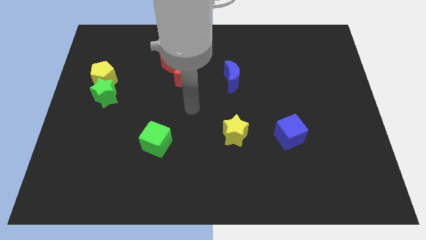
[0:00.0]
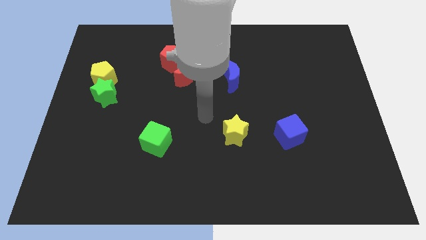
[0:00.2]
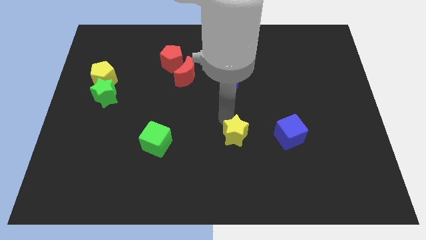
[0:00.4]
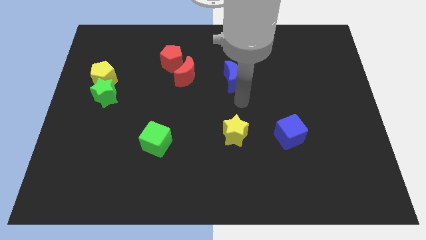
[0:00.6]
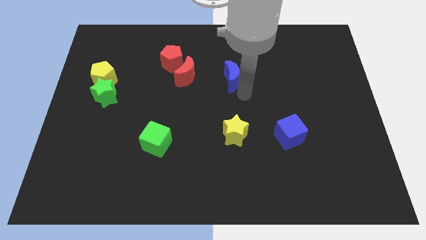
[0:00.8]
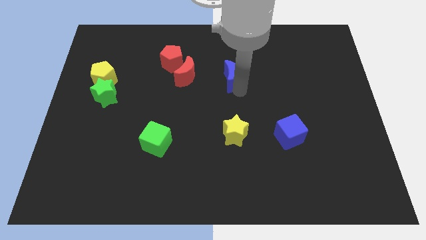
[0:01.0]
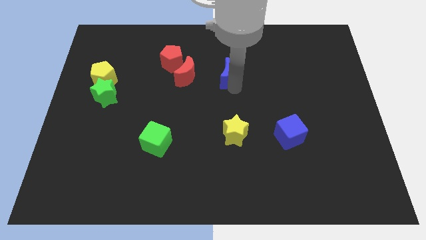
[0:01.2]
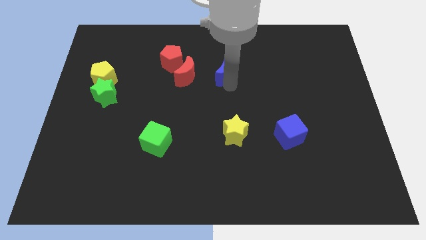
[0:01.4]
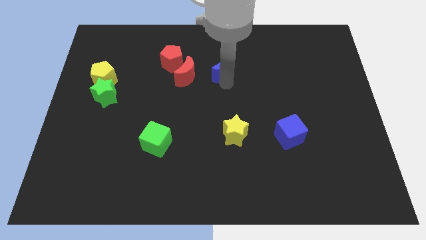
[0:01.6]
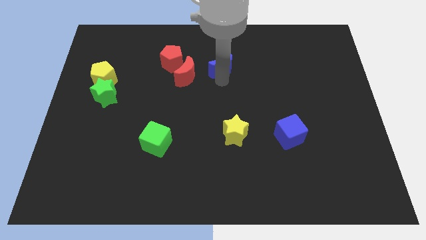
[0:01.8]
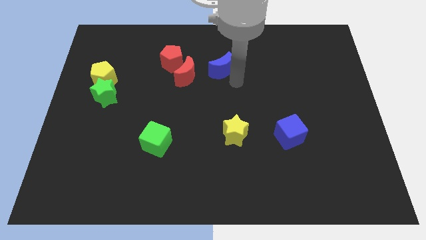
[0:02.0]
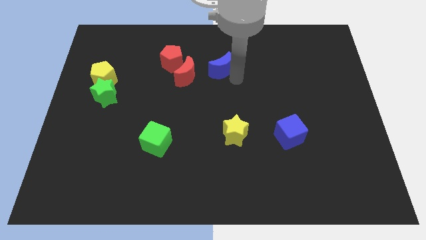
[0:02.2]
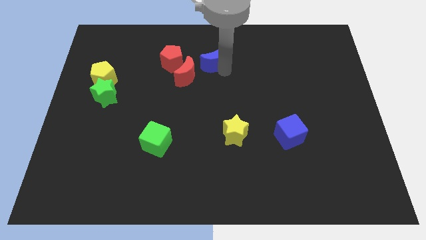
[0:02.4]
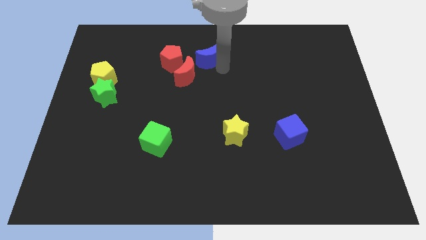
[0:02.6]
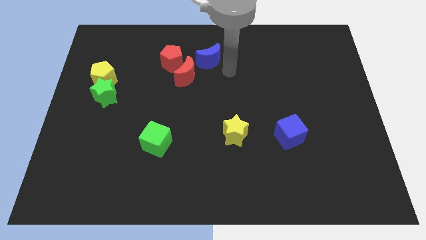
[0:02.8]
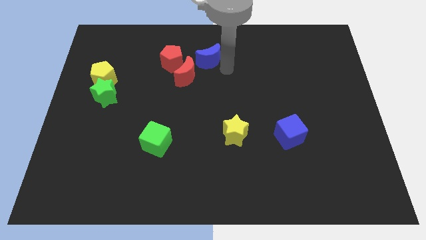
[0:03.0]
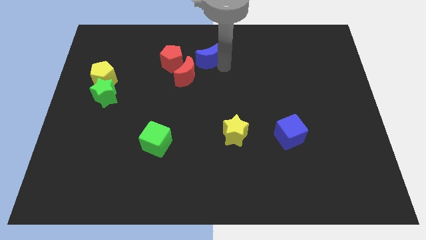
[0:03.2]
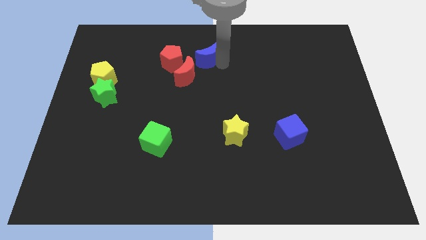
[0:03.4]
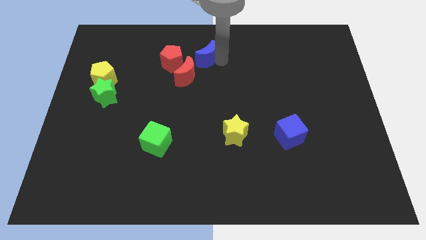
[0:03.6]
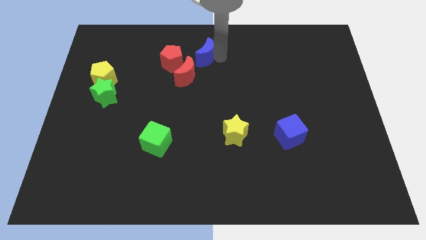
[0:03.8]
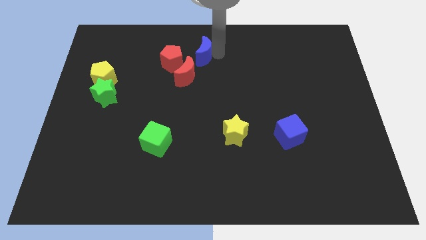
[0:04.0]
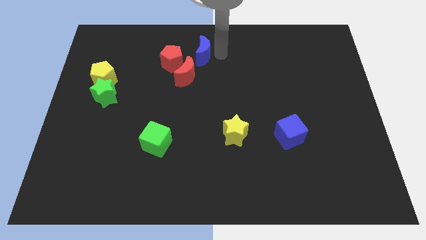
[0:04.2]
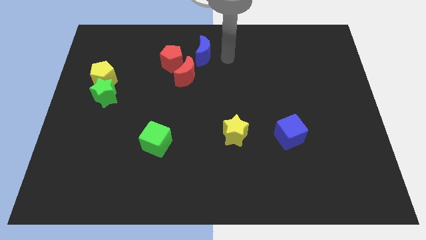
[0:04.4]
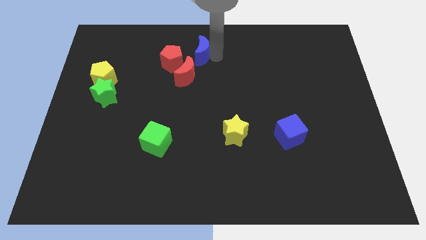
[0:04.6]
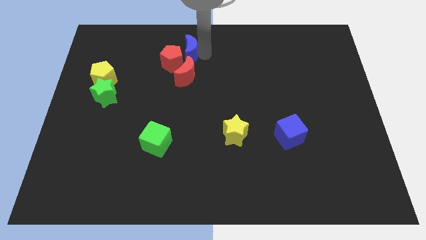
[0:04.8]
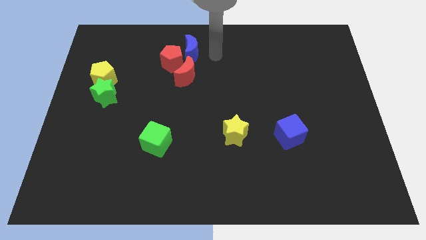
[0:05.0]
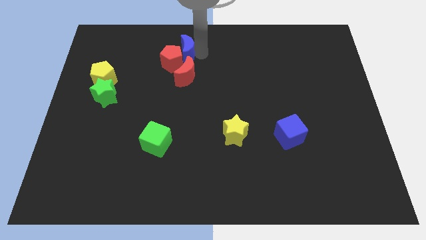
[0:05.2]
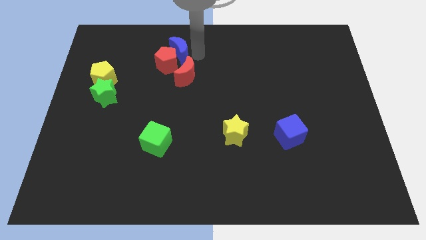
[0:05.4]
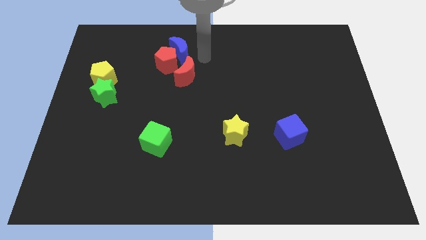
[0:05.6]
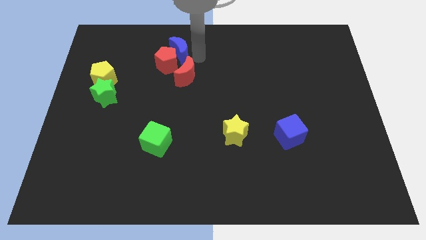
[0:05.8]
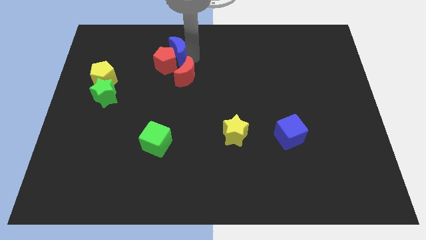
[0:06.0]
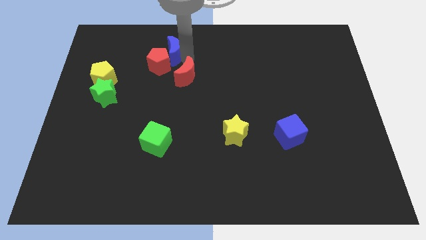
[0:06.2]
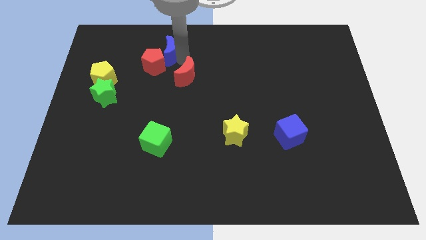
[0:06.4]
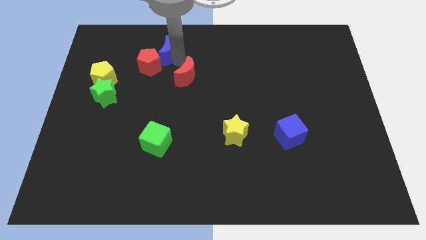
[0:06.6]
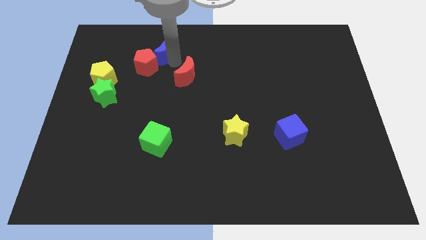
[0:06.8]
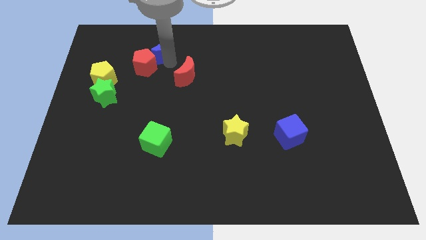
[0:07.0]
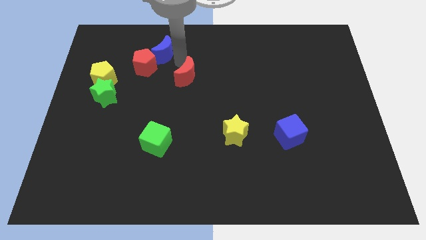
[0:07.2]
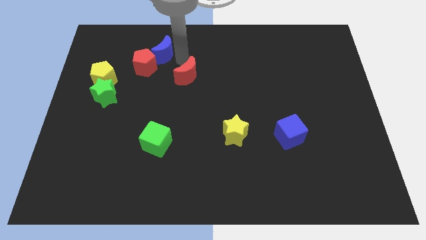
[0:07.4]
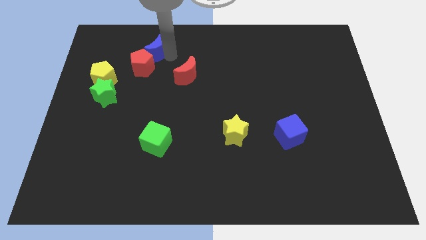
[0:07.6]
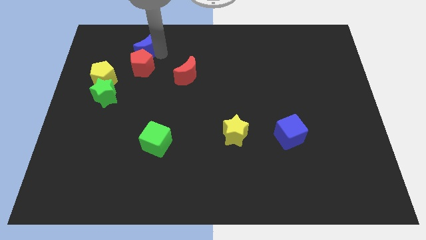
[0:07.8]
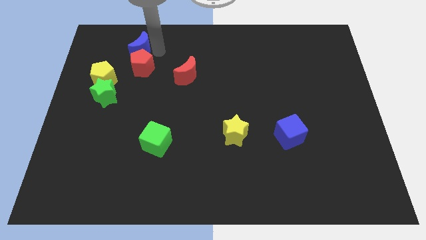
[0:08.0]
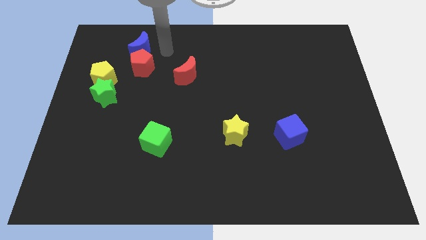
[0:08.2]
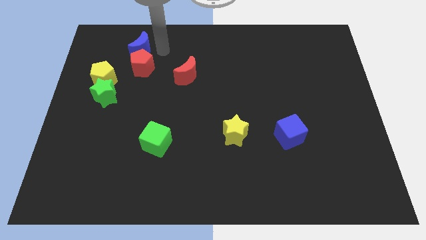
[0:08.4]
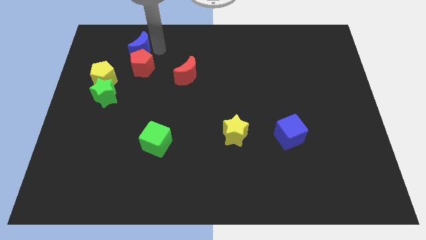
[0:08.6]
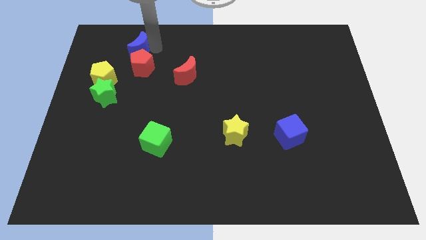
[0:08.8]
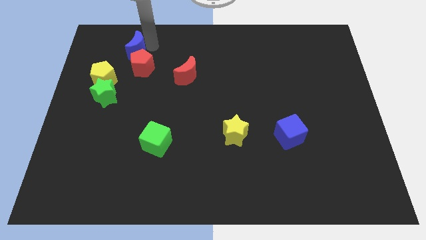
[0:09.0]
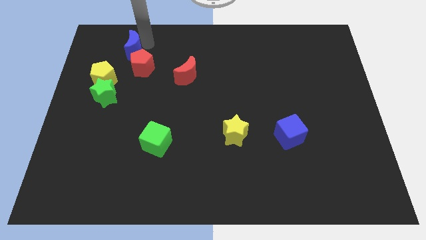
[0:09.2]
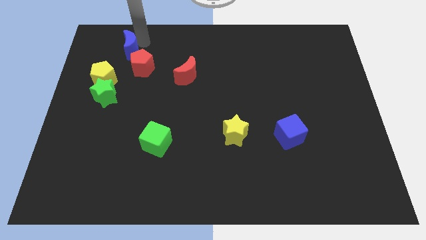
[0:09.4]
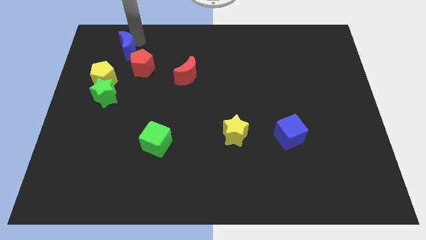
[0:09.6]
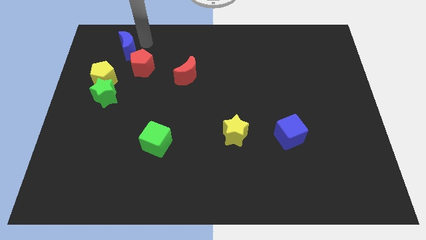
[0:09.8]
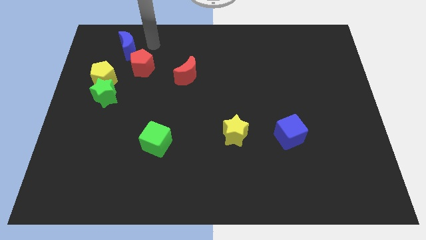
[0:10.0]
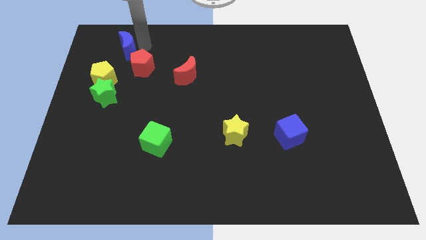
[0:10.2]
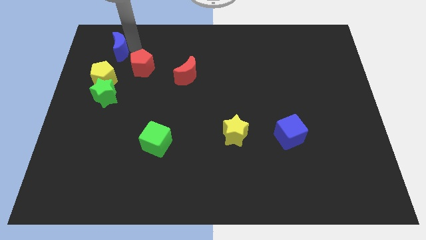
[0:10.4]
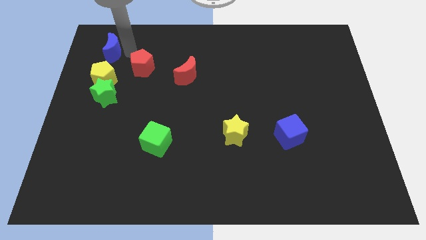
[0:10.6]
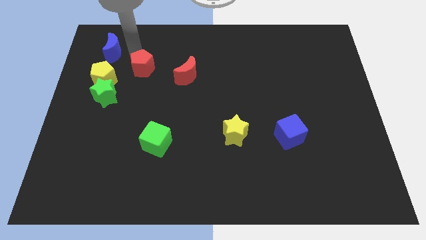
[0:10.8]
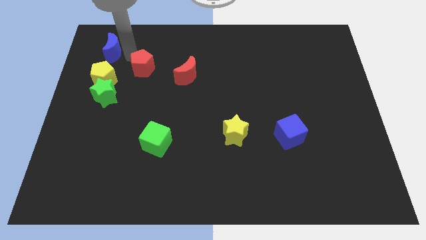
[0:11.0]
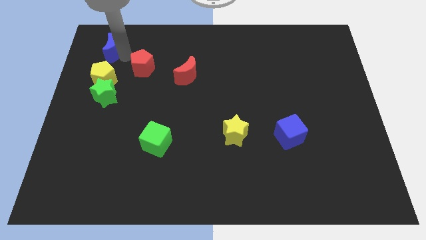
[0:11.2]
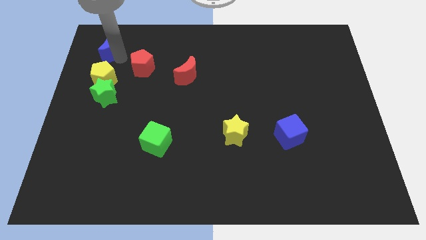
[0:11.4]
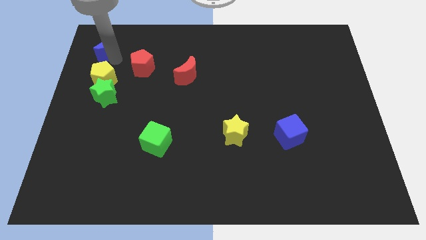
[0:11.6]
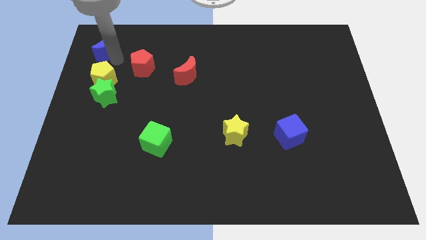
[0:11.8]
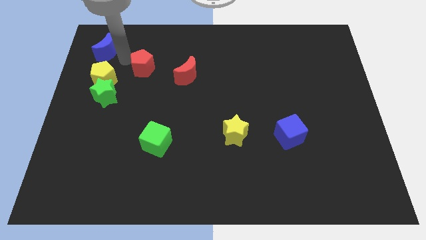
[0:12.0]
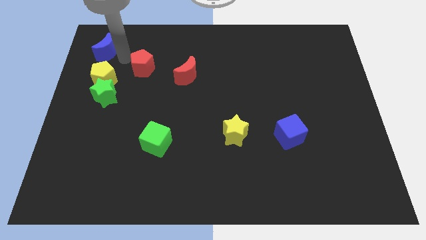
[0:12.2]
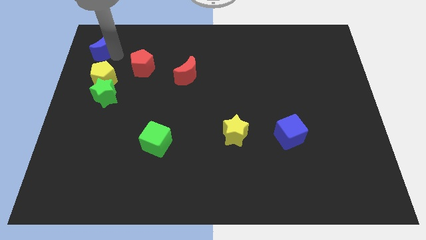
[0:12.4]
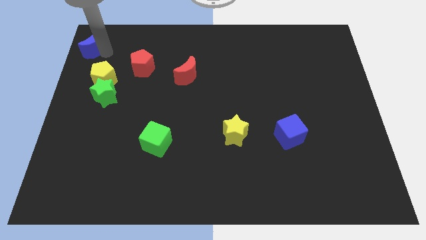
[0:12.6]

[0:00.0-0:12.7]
put the blue moon to the top left corner
